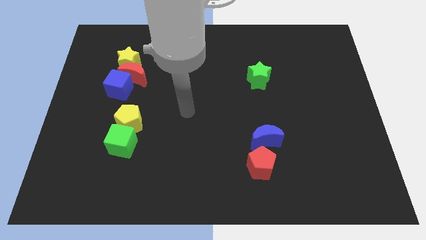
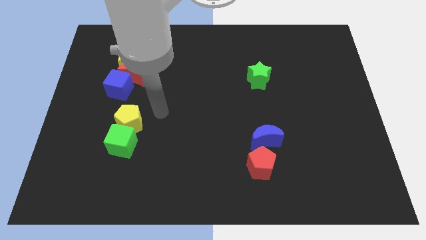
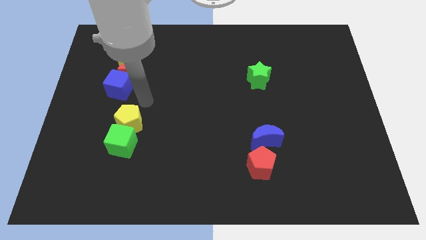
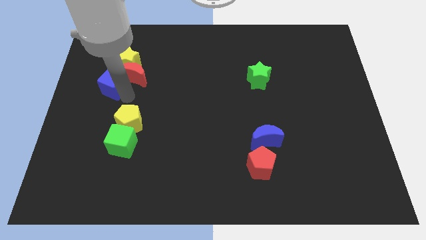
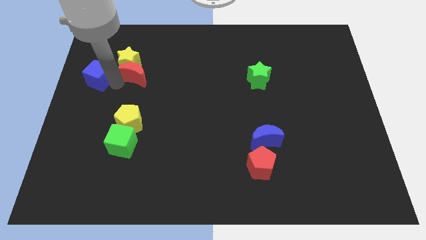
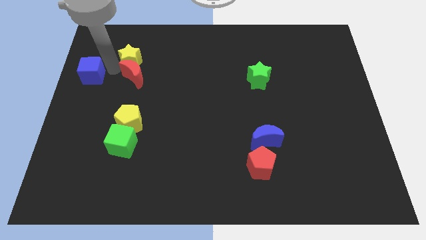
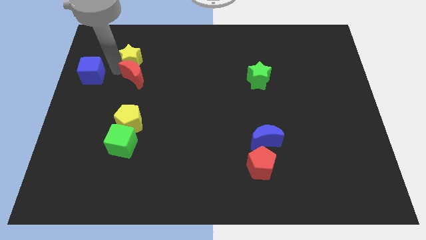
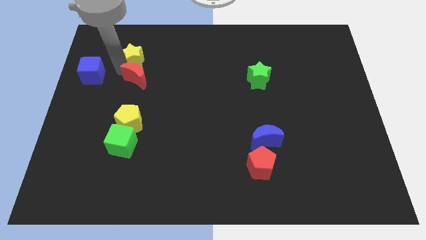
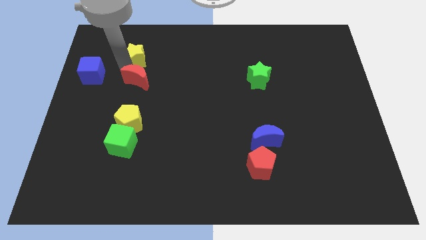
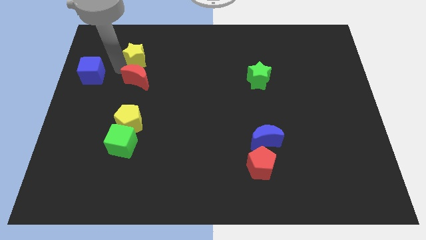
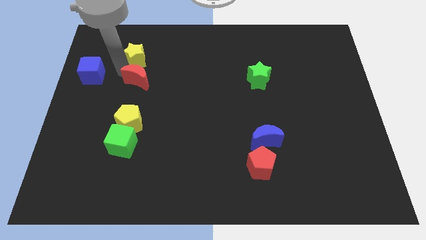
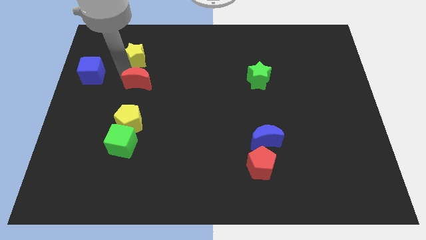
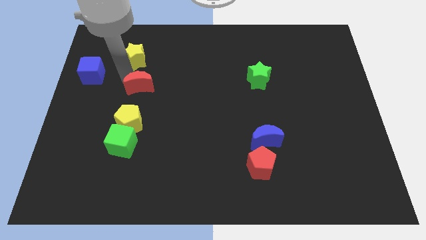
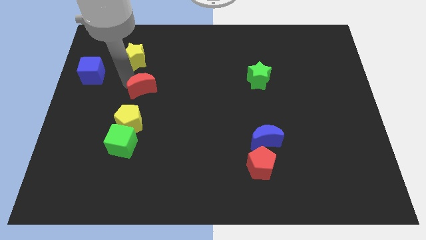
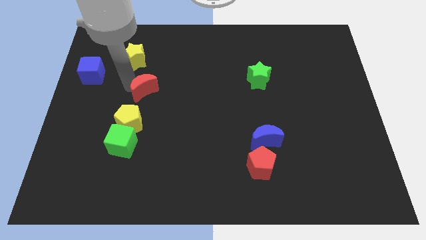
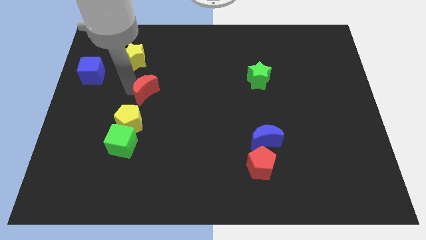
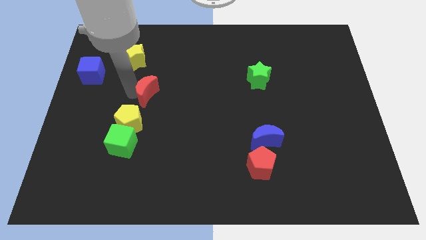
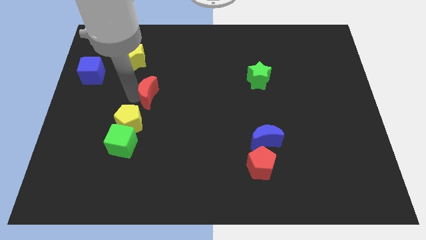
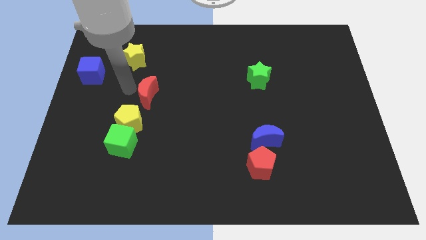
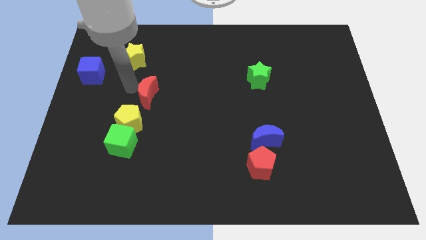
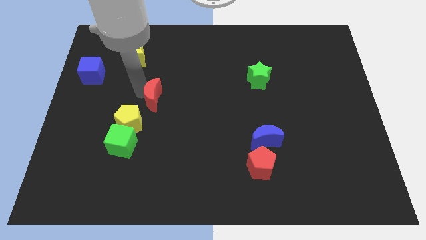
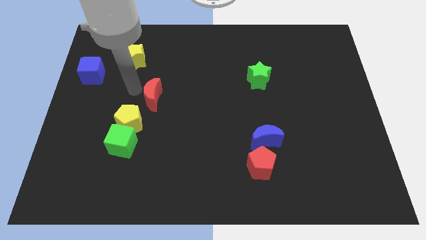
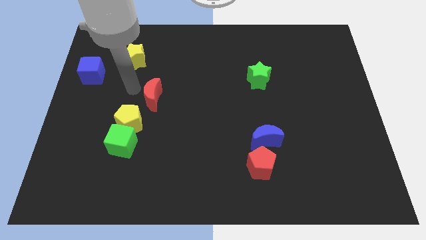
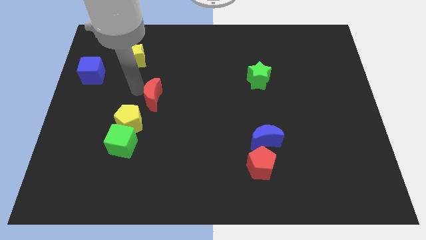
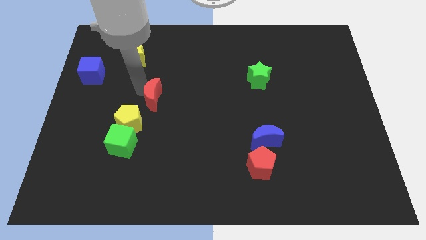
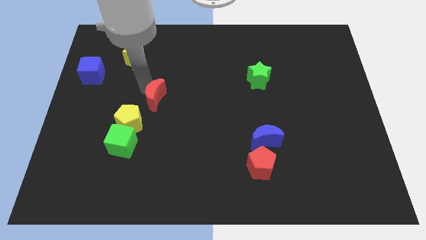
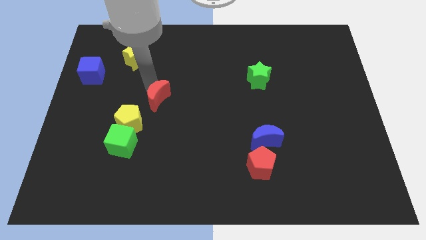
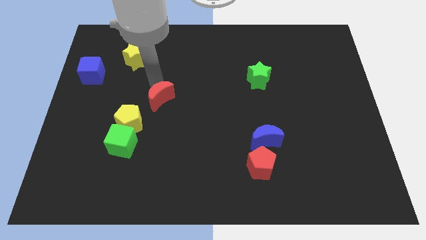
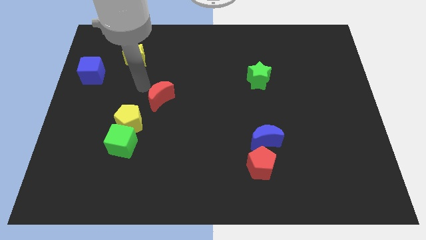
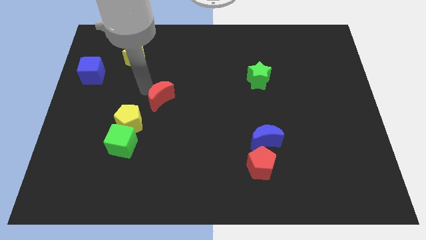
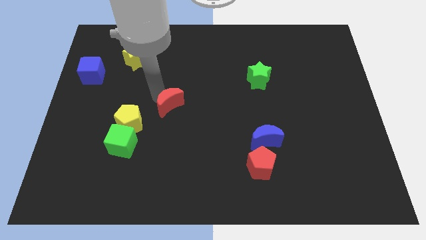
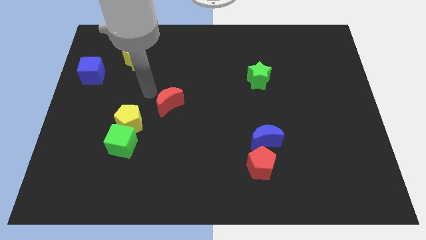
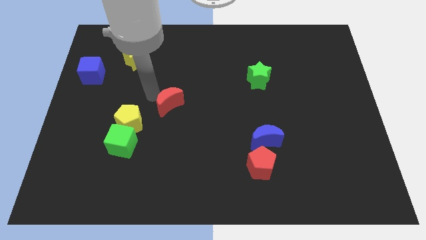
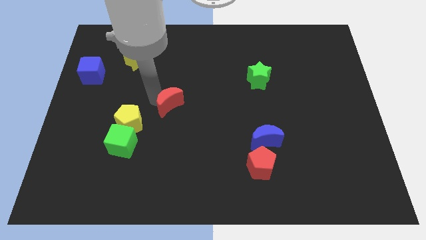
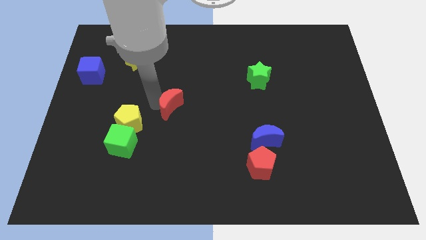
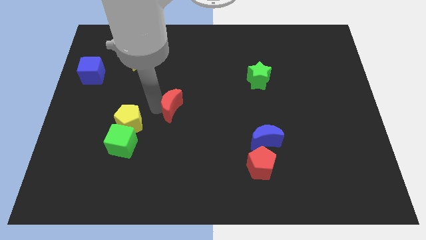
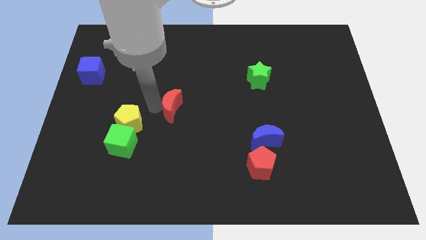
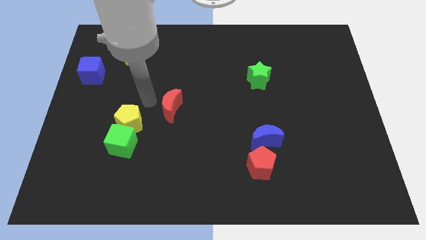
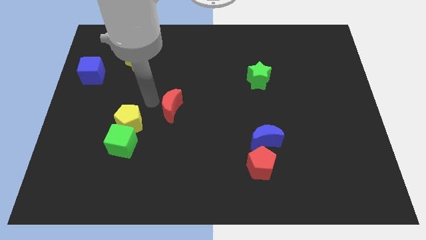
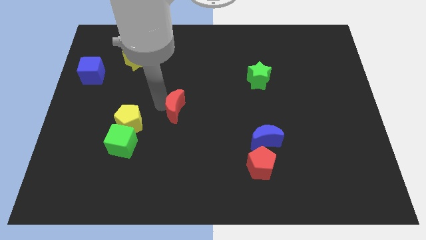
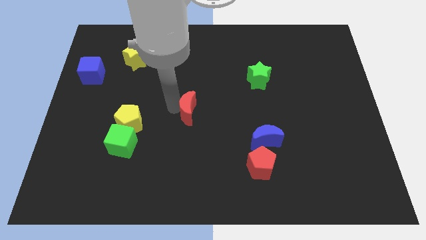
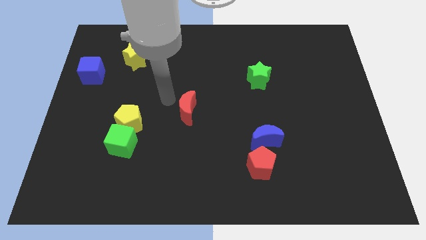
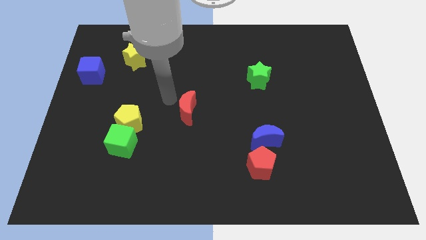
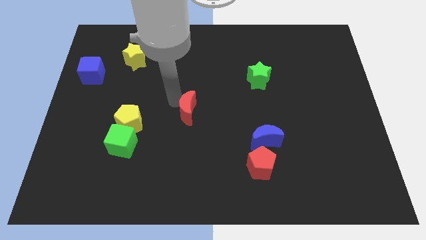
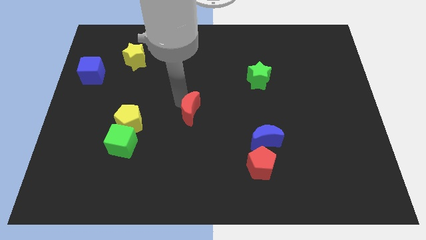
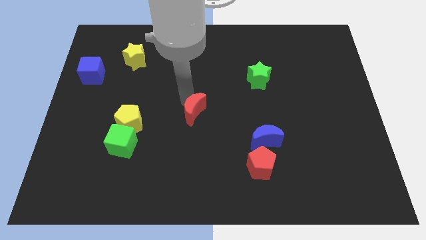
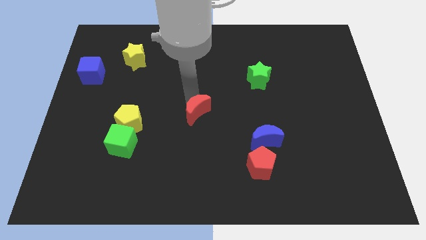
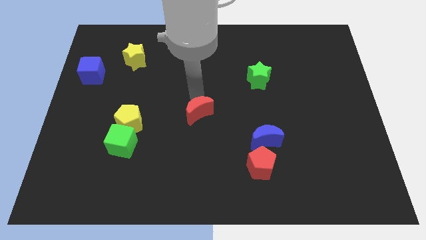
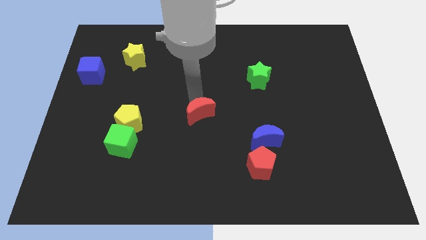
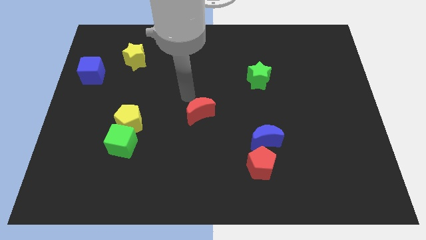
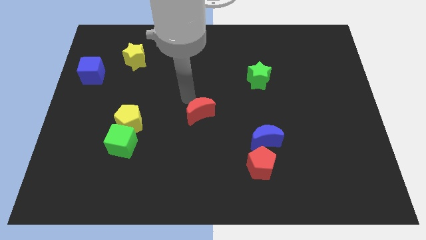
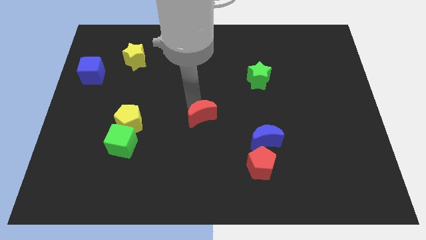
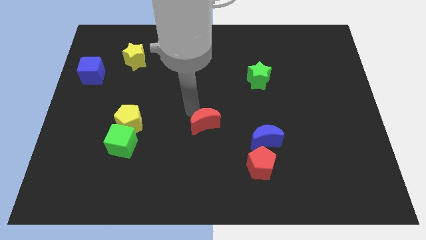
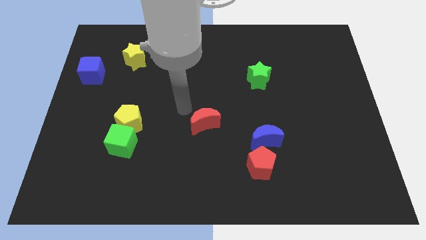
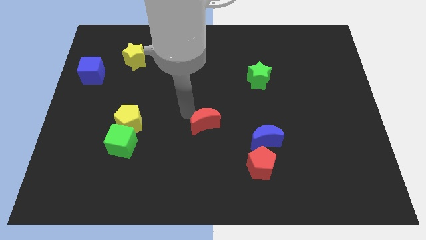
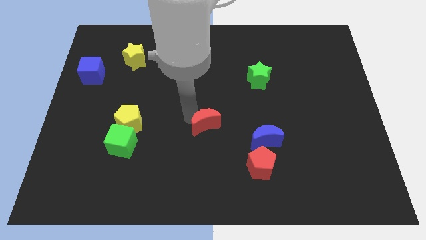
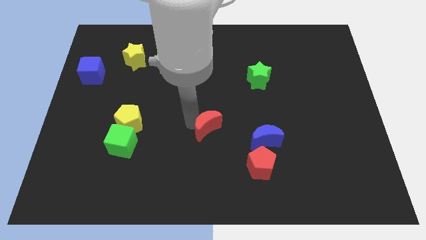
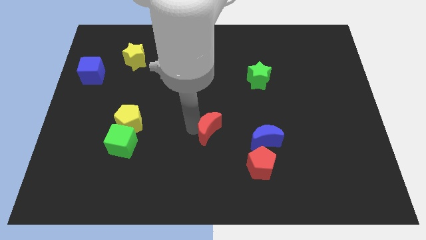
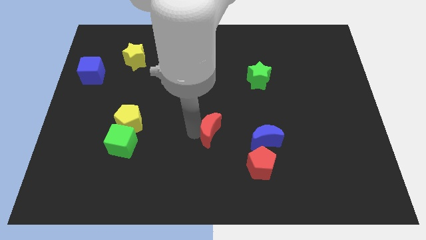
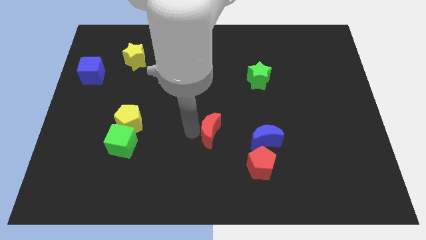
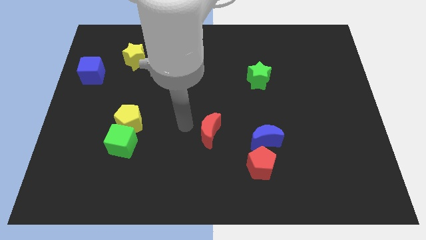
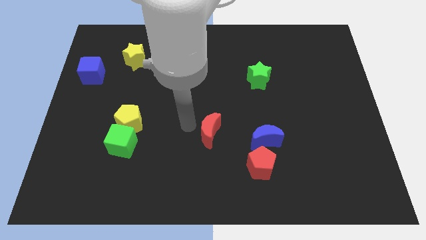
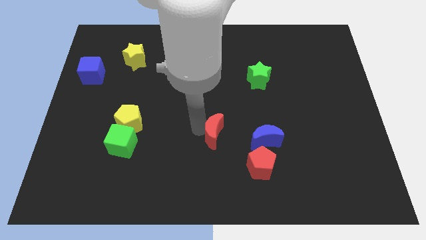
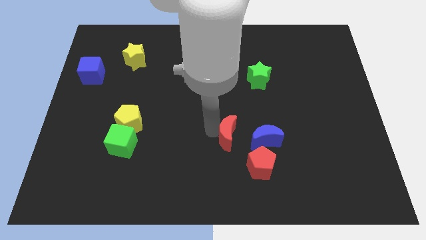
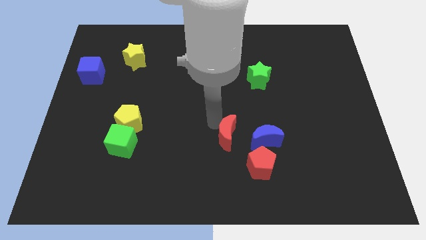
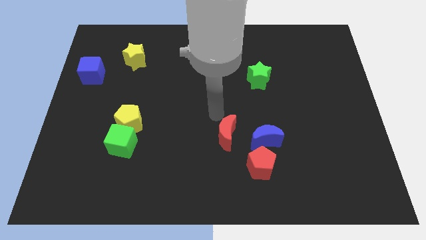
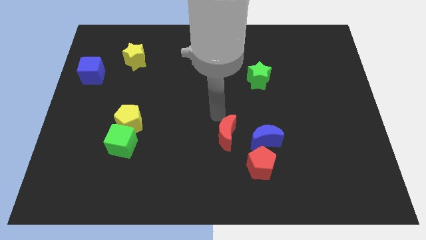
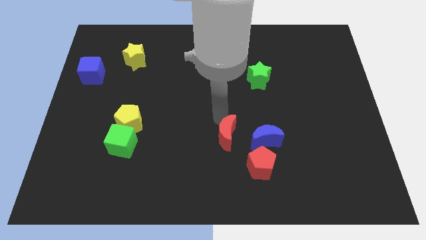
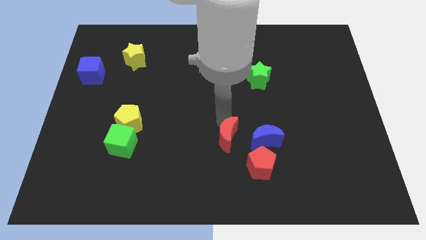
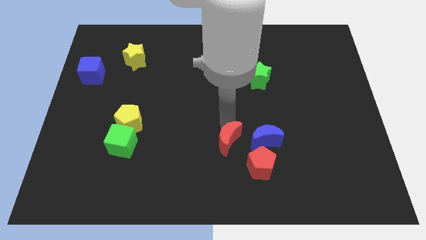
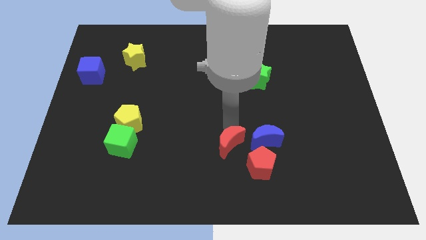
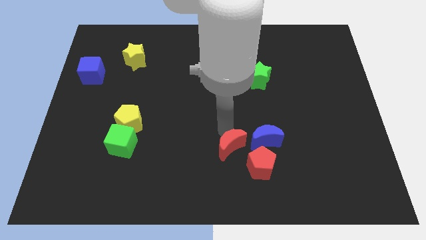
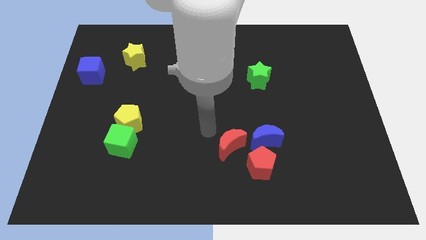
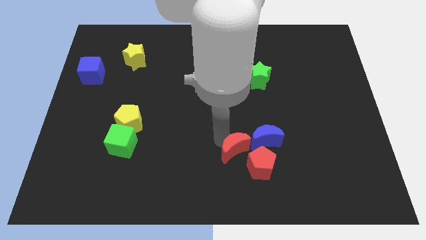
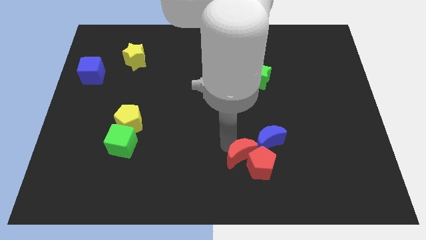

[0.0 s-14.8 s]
slide the red moon next to the red pentagon
